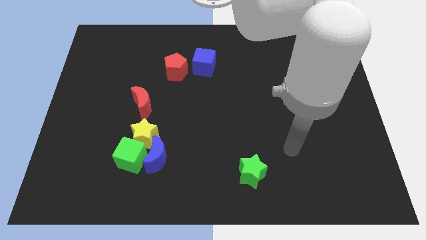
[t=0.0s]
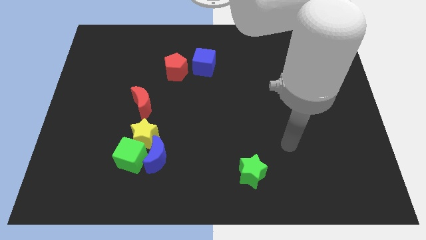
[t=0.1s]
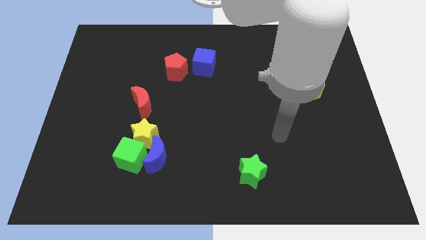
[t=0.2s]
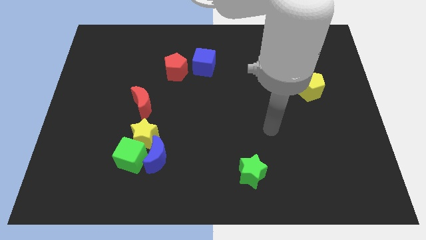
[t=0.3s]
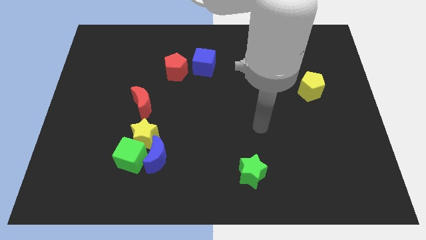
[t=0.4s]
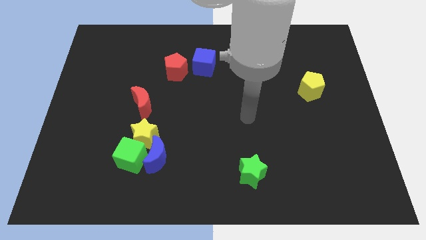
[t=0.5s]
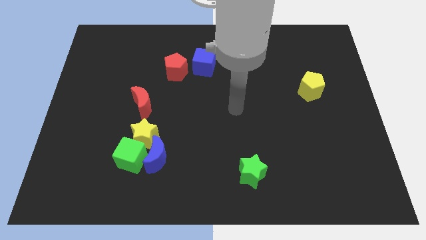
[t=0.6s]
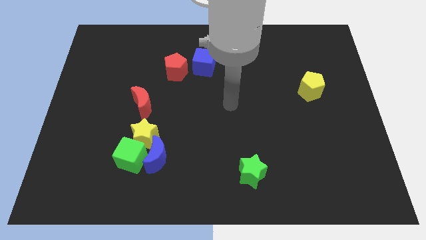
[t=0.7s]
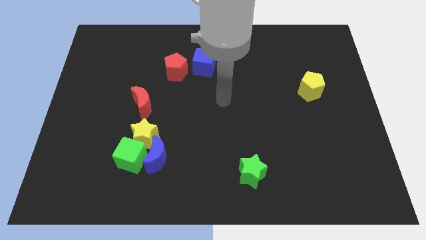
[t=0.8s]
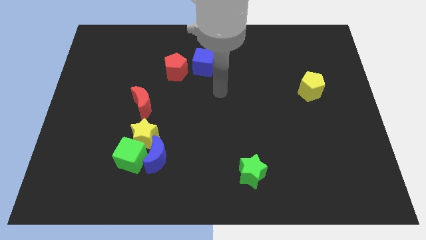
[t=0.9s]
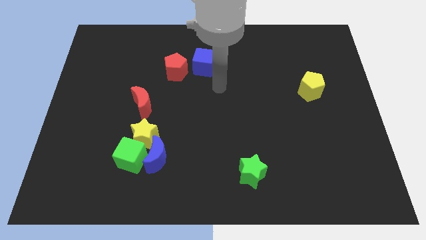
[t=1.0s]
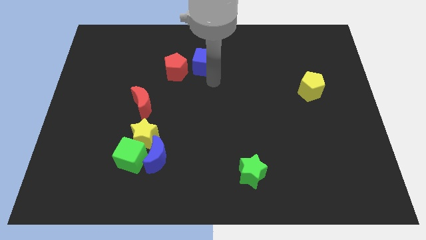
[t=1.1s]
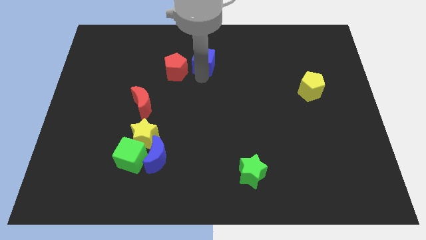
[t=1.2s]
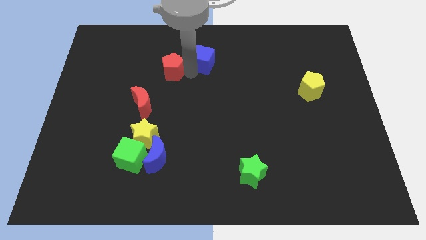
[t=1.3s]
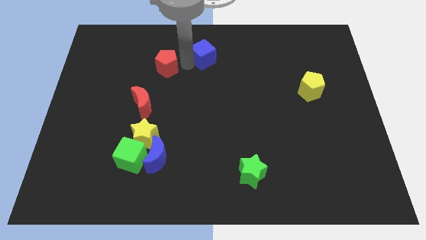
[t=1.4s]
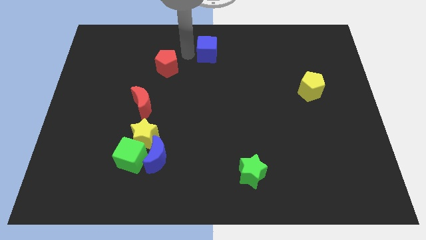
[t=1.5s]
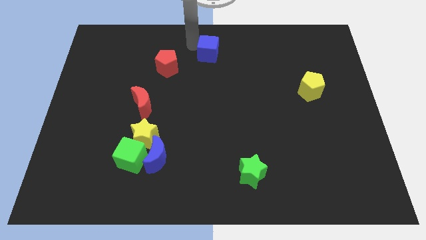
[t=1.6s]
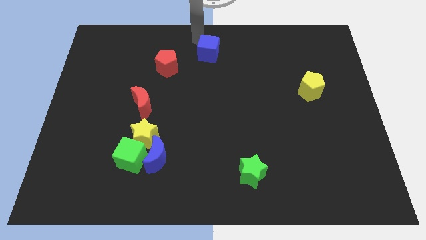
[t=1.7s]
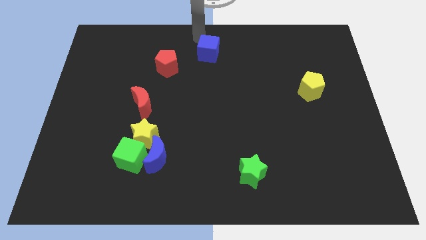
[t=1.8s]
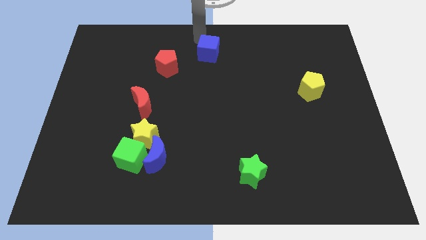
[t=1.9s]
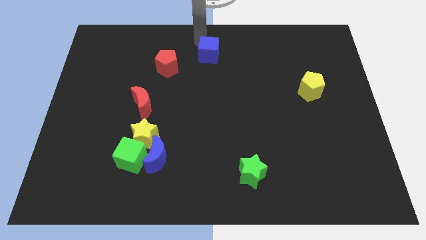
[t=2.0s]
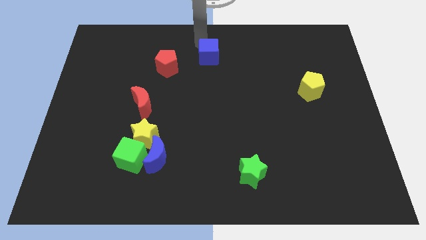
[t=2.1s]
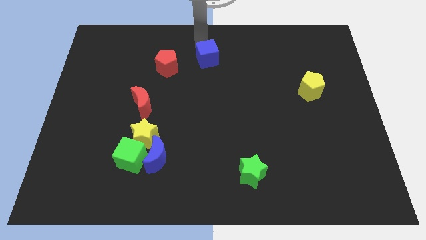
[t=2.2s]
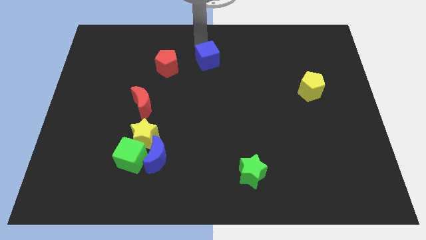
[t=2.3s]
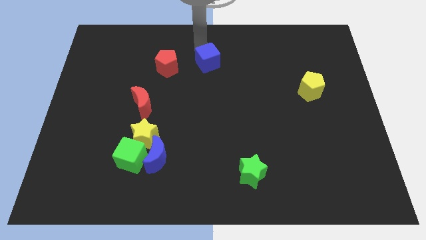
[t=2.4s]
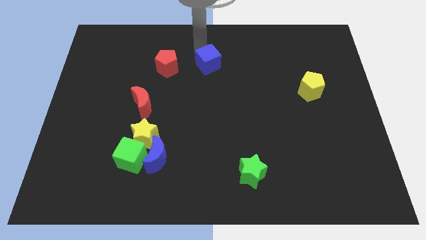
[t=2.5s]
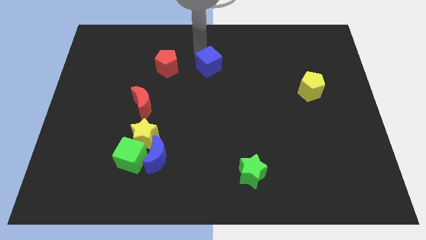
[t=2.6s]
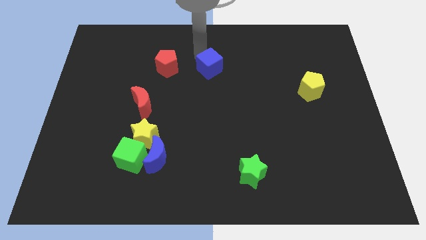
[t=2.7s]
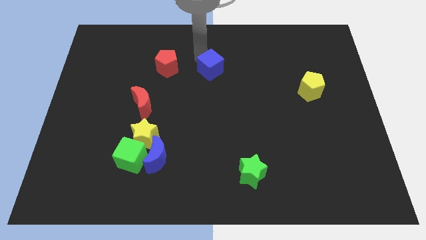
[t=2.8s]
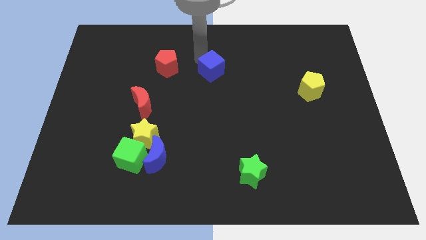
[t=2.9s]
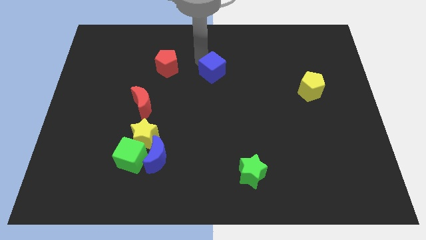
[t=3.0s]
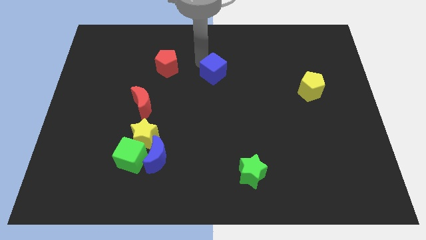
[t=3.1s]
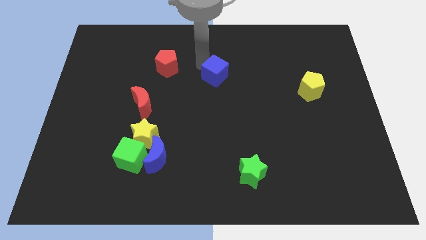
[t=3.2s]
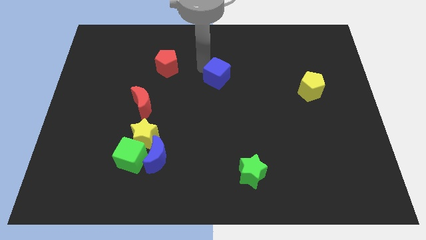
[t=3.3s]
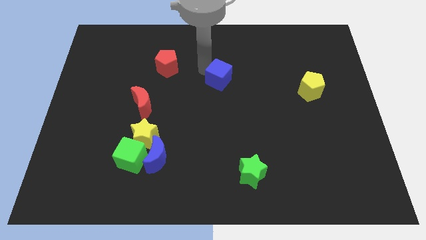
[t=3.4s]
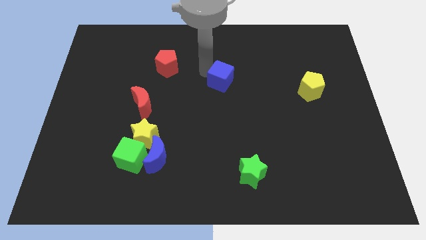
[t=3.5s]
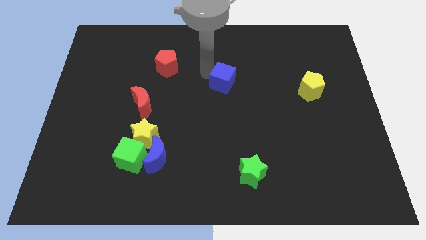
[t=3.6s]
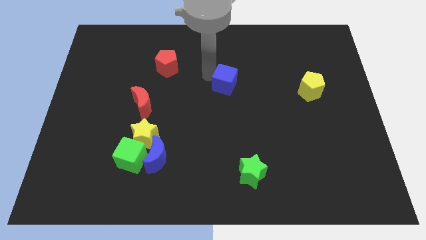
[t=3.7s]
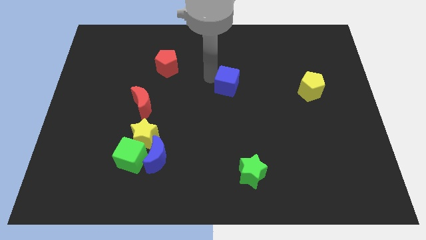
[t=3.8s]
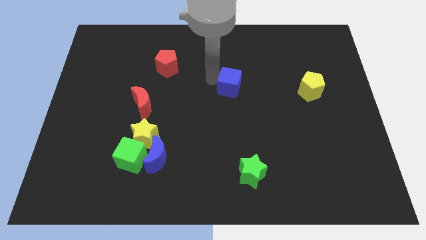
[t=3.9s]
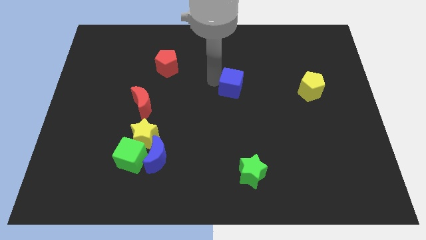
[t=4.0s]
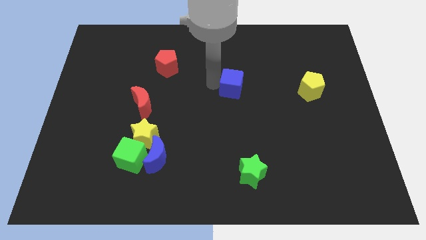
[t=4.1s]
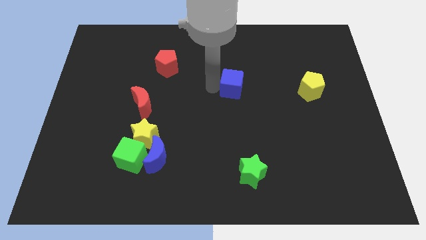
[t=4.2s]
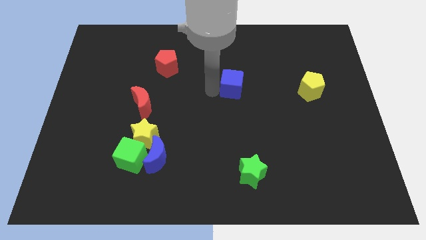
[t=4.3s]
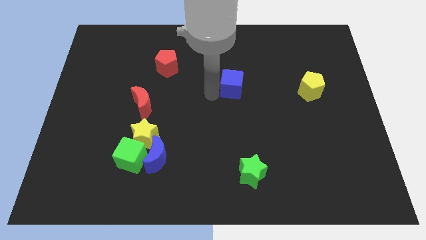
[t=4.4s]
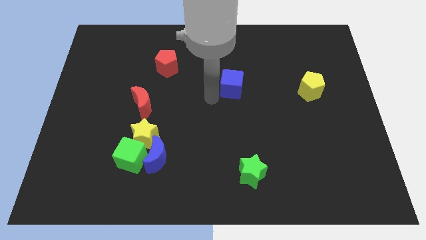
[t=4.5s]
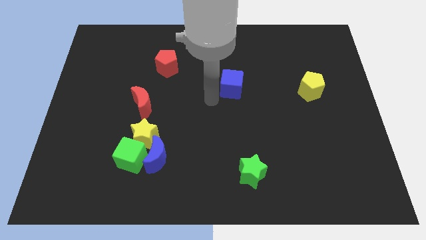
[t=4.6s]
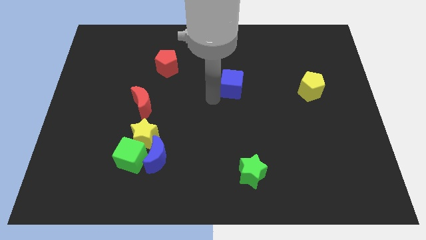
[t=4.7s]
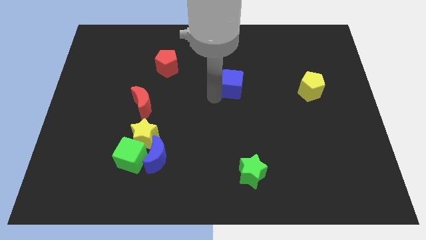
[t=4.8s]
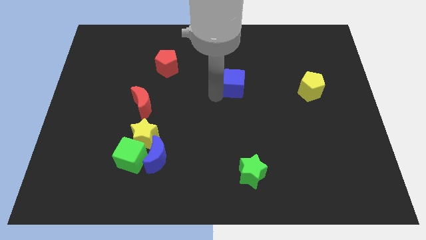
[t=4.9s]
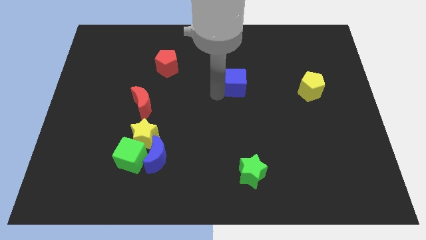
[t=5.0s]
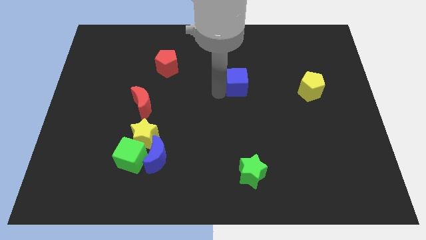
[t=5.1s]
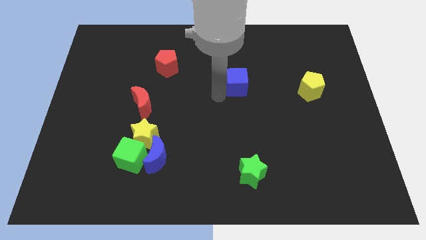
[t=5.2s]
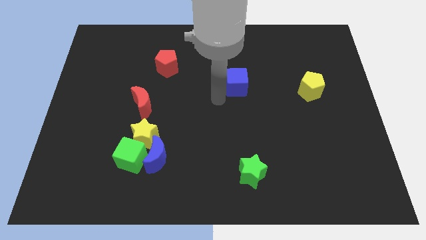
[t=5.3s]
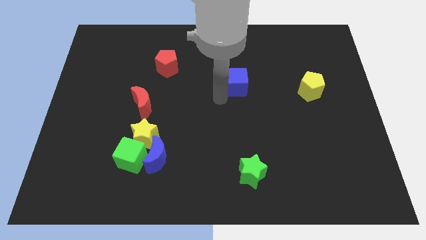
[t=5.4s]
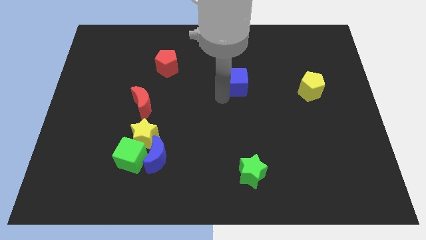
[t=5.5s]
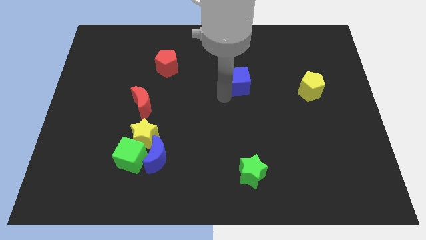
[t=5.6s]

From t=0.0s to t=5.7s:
slightly slide the blue cube right

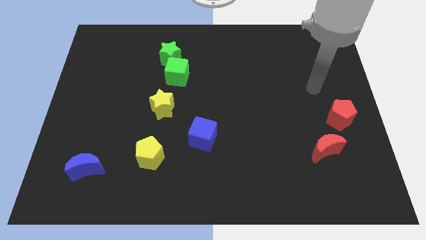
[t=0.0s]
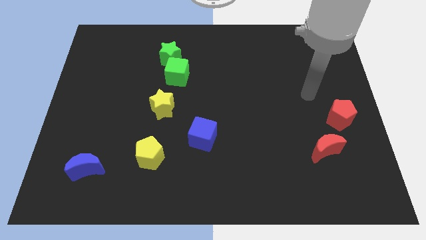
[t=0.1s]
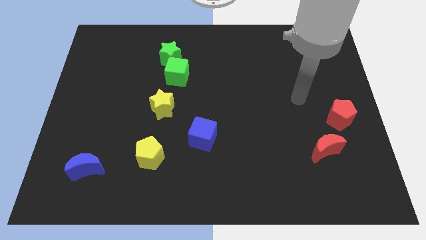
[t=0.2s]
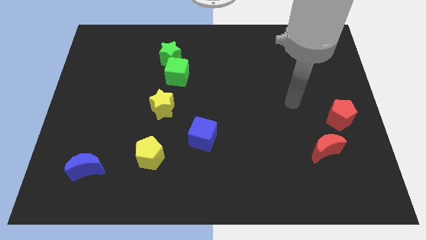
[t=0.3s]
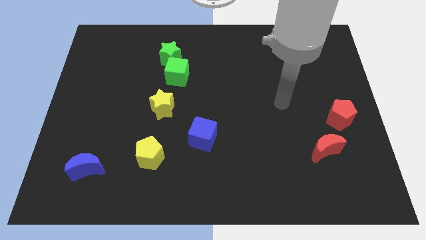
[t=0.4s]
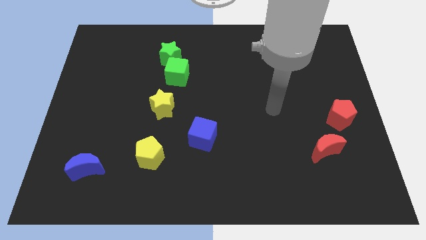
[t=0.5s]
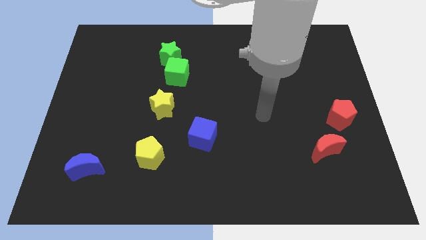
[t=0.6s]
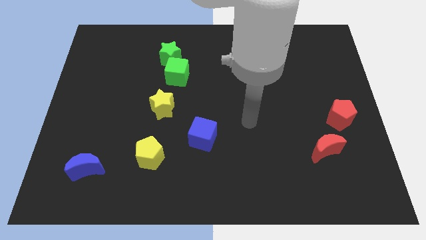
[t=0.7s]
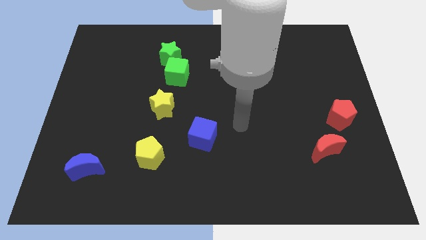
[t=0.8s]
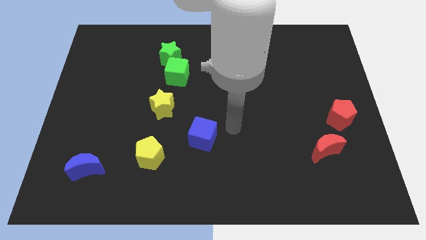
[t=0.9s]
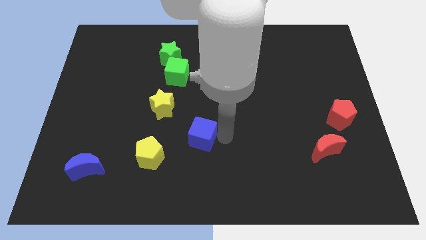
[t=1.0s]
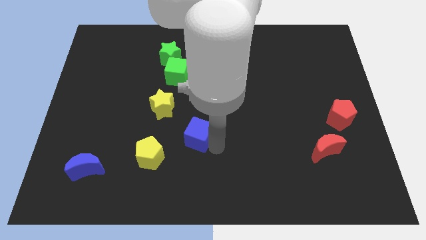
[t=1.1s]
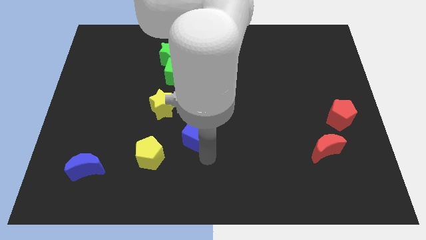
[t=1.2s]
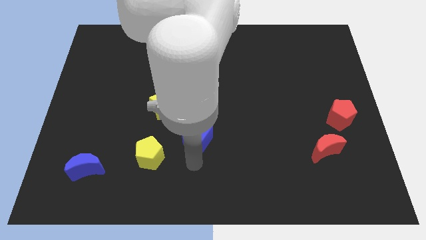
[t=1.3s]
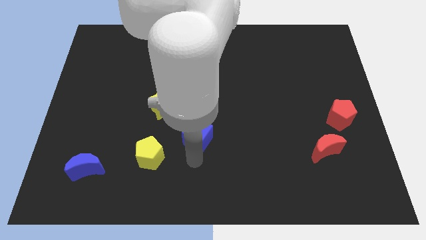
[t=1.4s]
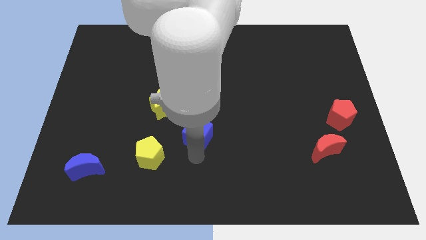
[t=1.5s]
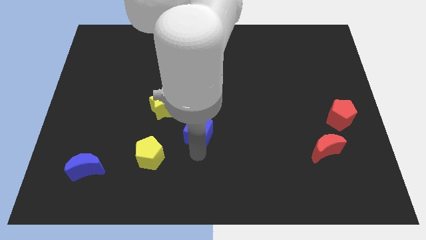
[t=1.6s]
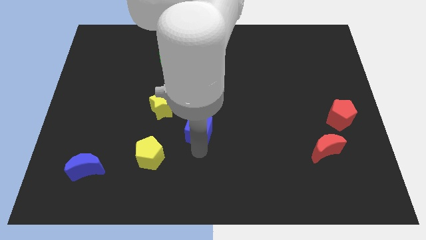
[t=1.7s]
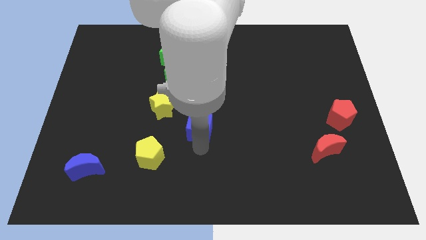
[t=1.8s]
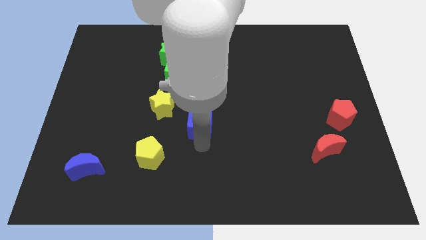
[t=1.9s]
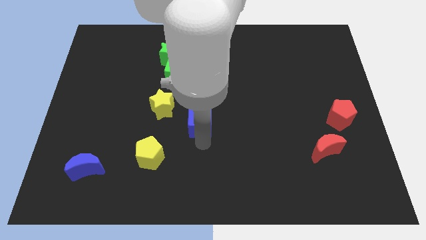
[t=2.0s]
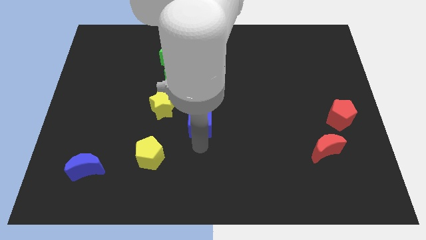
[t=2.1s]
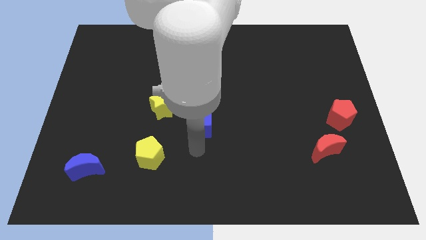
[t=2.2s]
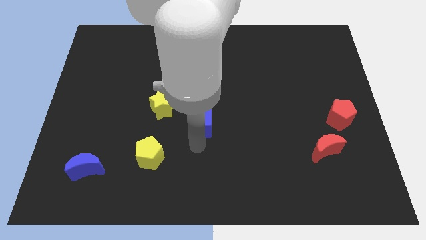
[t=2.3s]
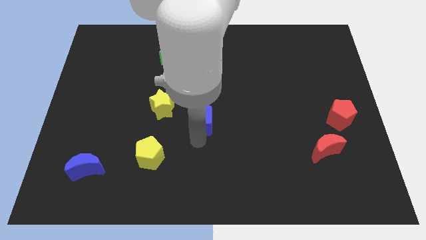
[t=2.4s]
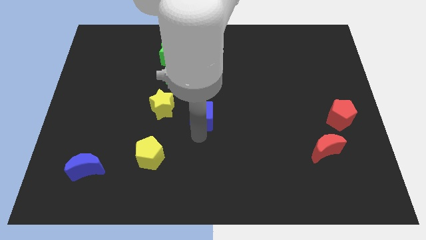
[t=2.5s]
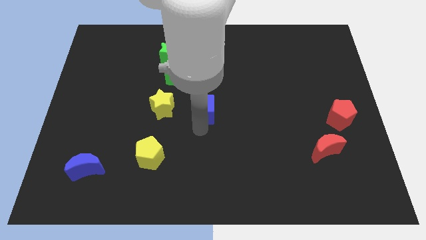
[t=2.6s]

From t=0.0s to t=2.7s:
move the blue cube slightly upwards
